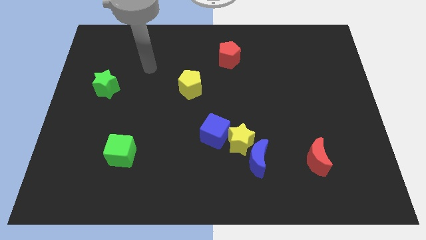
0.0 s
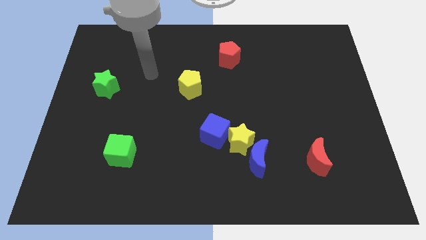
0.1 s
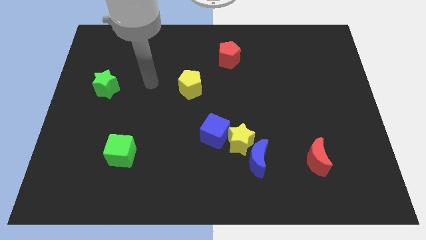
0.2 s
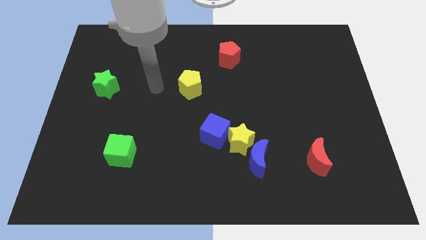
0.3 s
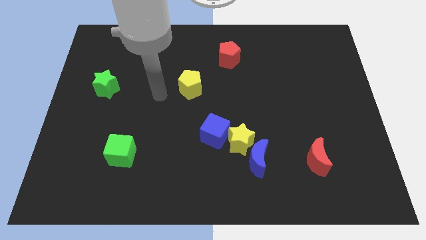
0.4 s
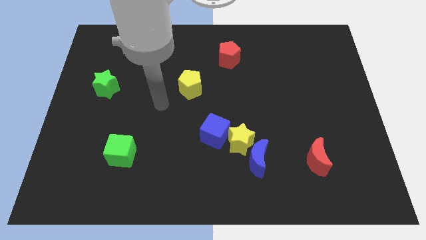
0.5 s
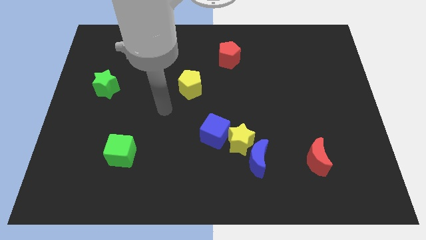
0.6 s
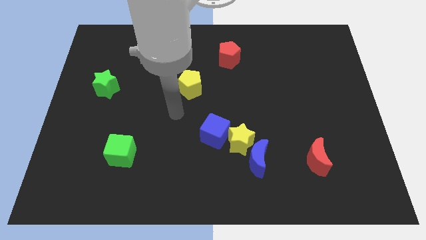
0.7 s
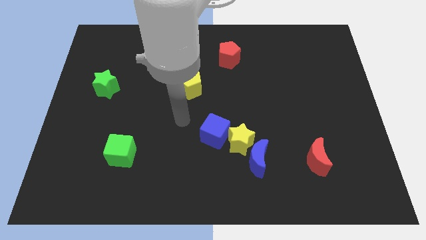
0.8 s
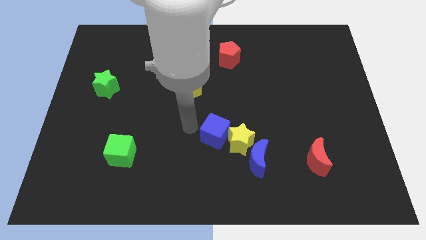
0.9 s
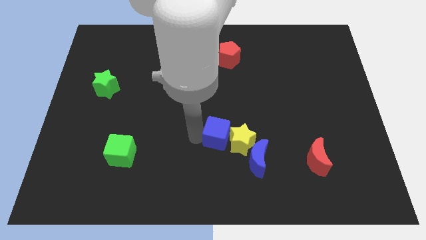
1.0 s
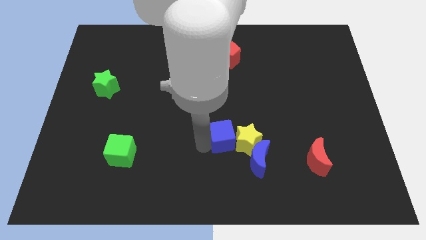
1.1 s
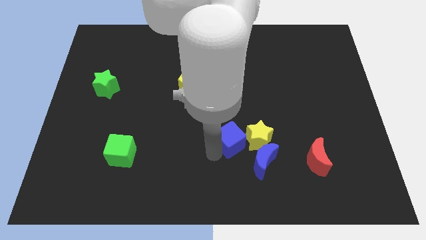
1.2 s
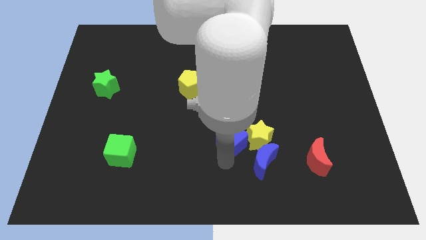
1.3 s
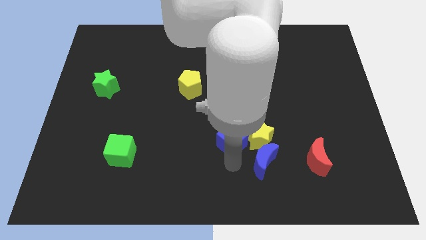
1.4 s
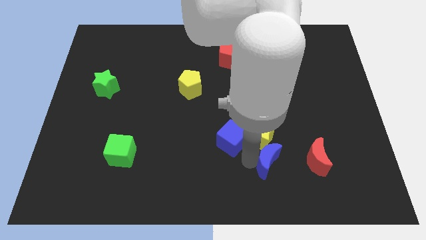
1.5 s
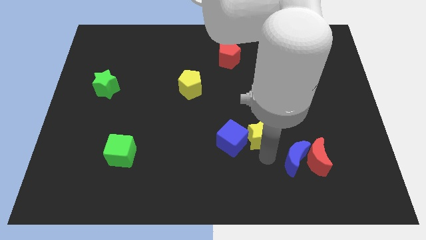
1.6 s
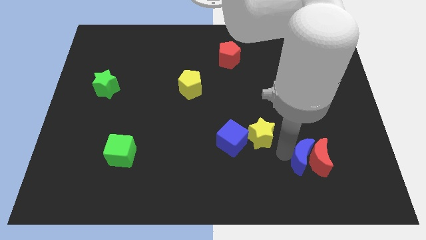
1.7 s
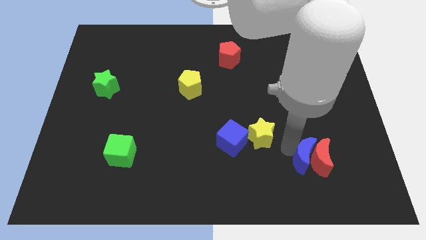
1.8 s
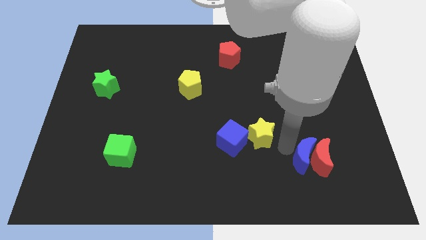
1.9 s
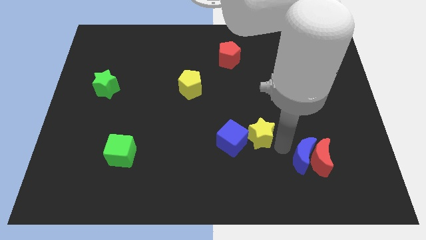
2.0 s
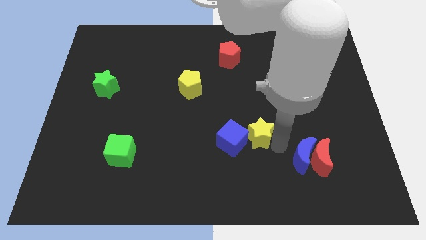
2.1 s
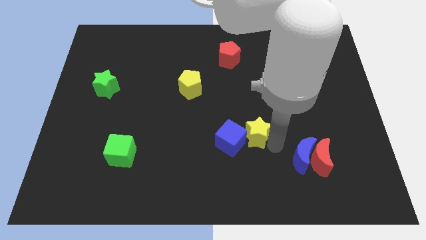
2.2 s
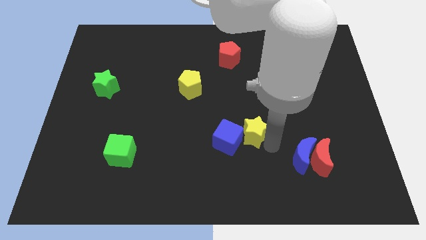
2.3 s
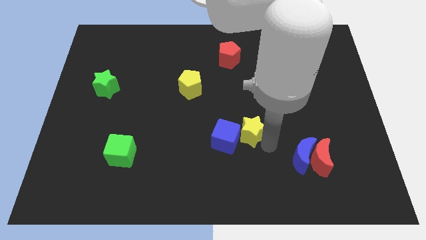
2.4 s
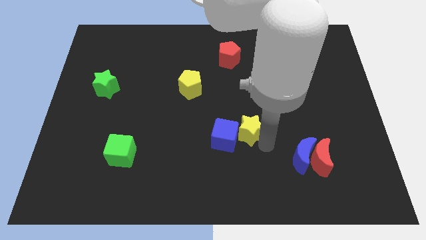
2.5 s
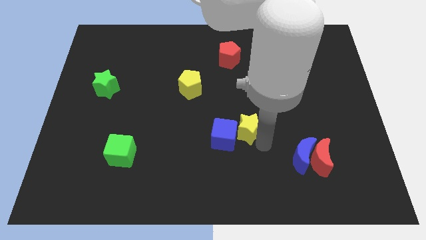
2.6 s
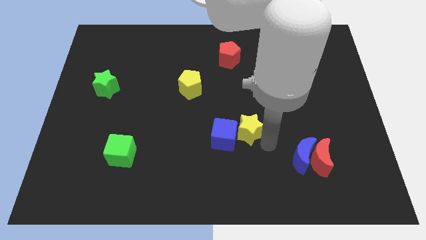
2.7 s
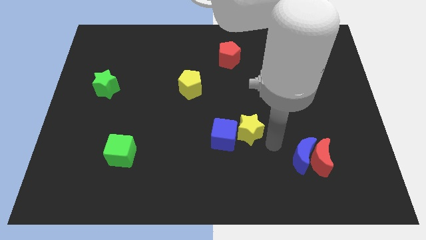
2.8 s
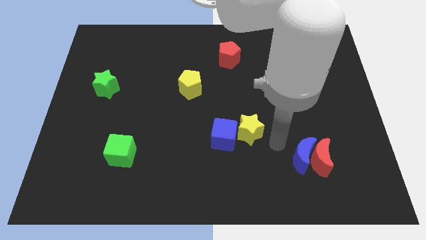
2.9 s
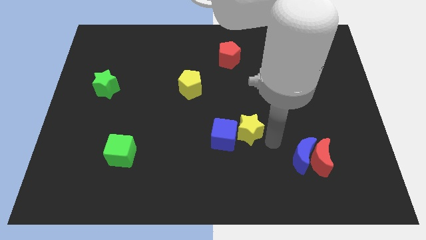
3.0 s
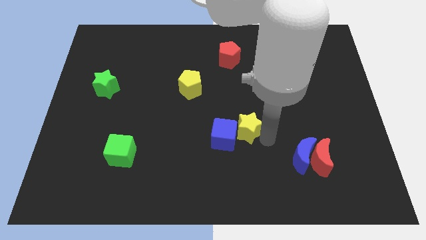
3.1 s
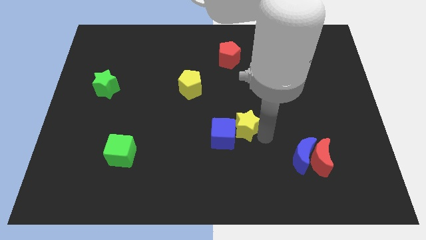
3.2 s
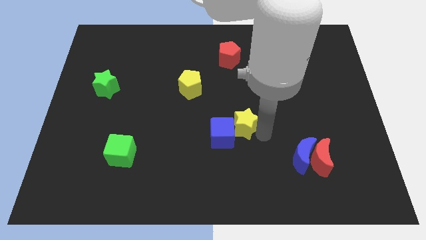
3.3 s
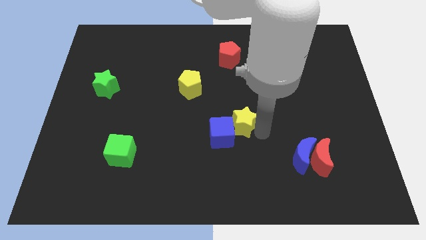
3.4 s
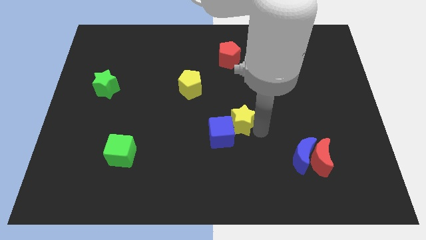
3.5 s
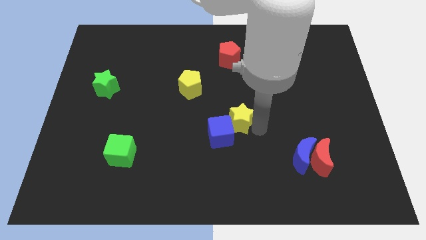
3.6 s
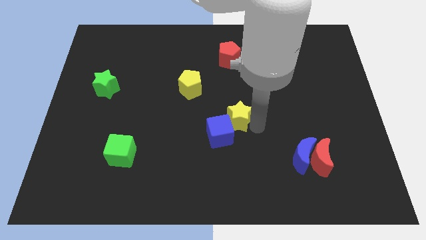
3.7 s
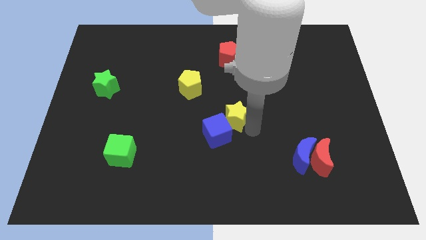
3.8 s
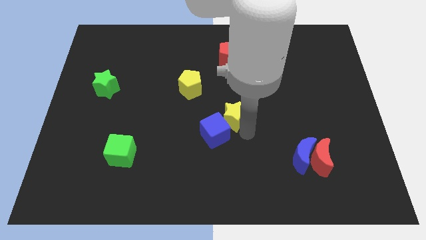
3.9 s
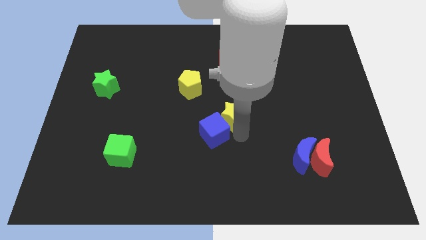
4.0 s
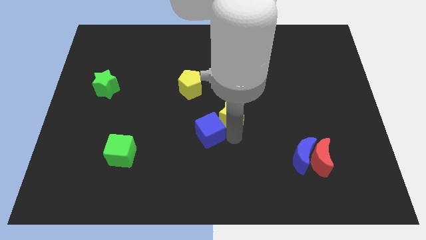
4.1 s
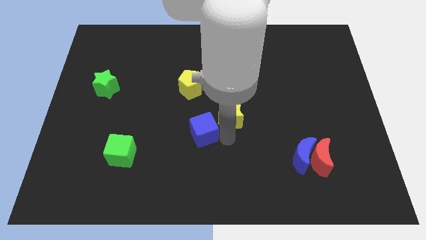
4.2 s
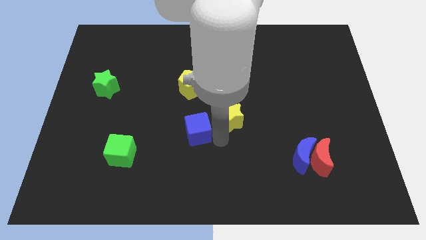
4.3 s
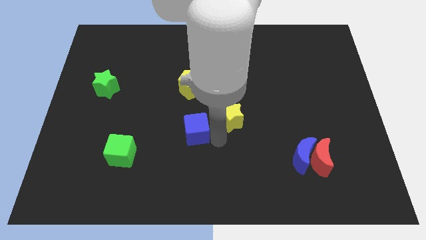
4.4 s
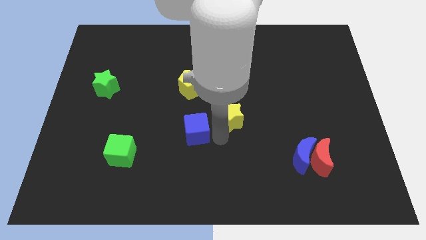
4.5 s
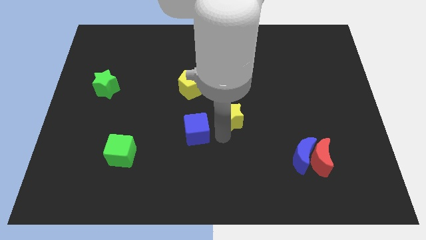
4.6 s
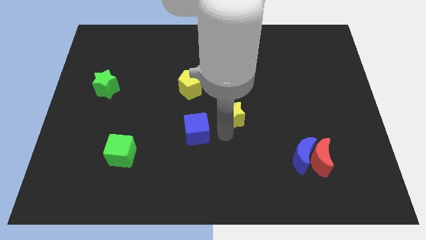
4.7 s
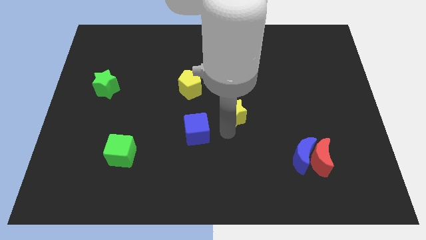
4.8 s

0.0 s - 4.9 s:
move the yellow star slightly up

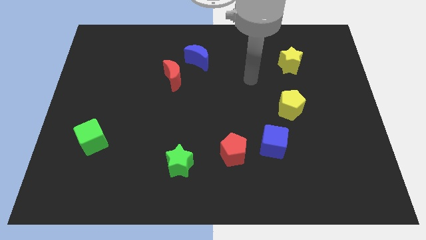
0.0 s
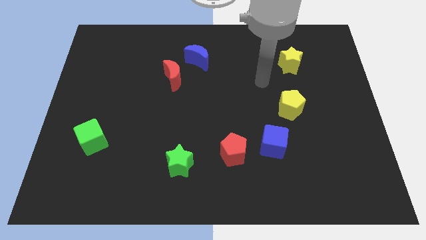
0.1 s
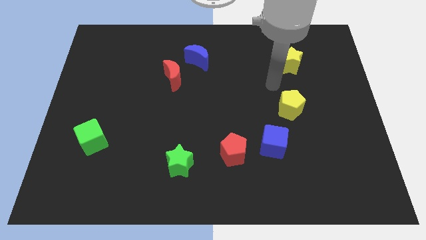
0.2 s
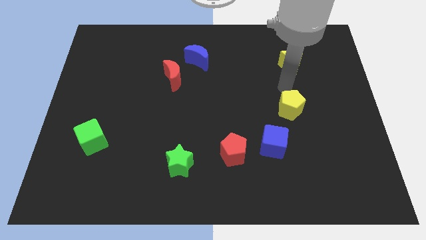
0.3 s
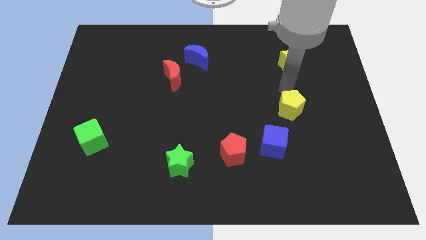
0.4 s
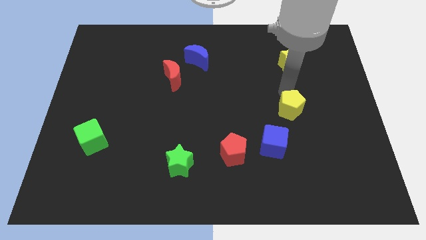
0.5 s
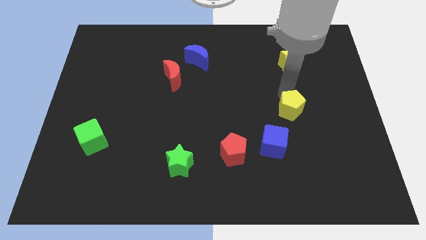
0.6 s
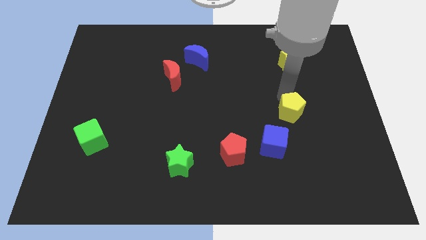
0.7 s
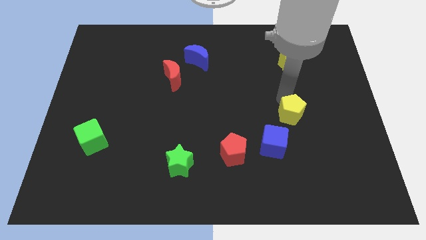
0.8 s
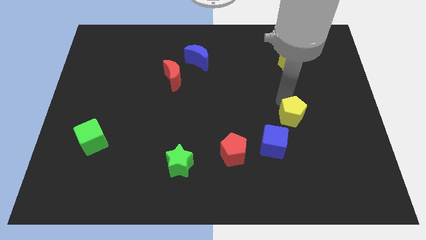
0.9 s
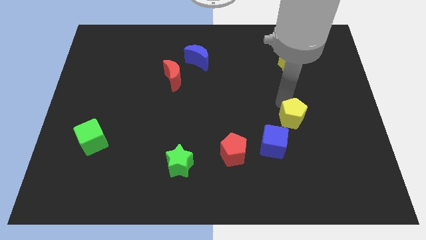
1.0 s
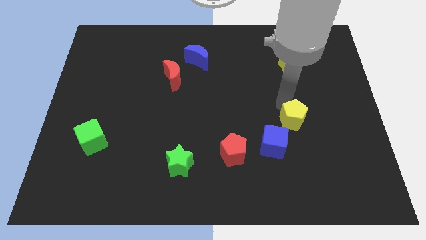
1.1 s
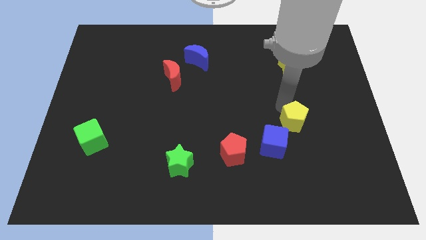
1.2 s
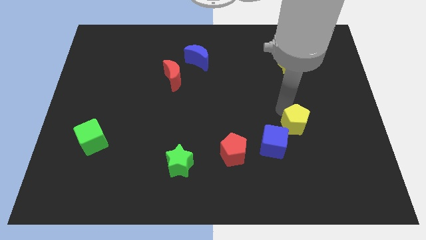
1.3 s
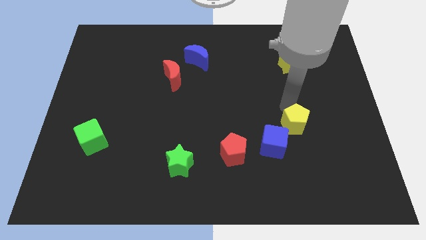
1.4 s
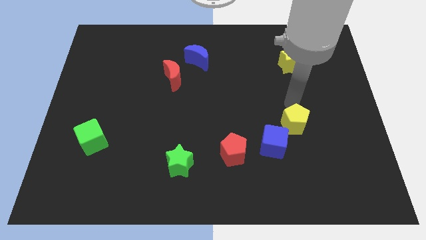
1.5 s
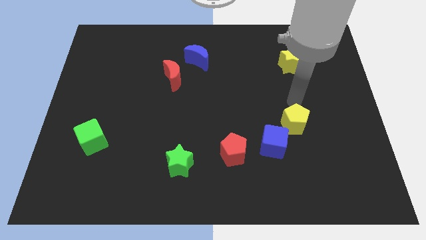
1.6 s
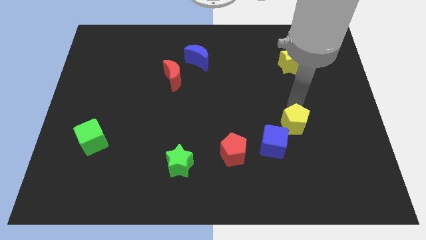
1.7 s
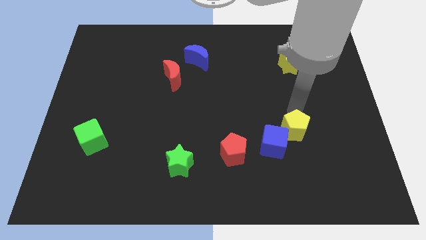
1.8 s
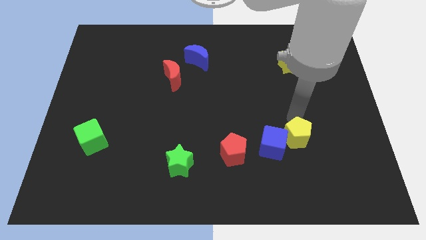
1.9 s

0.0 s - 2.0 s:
push the yellow pentagon a bit downwards

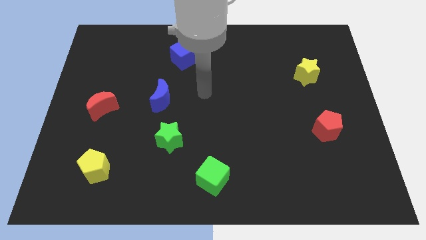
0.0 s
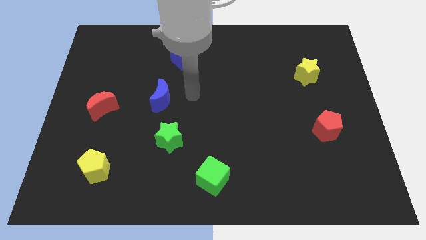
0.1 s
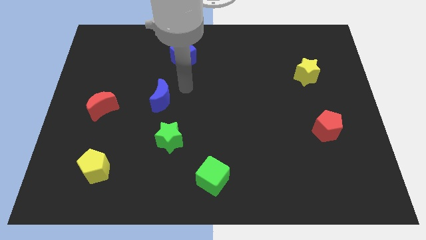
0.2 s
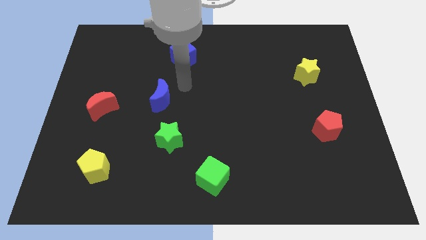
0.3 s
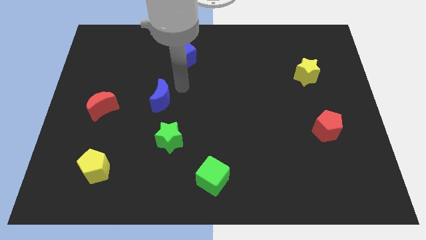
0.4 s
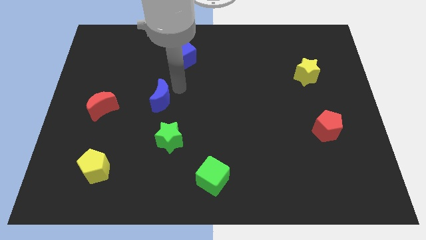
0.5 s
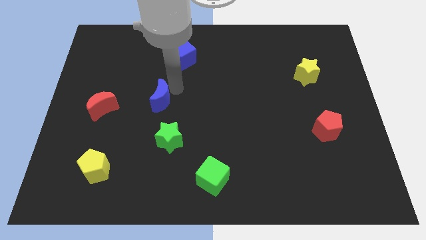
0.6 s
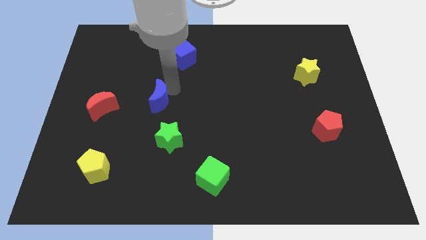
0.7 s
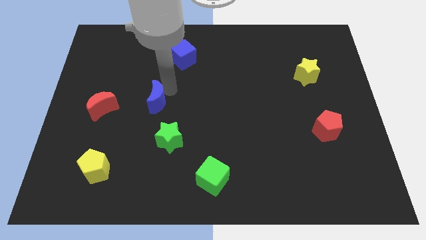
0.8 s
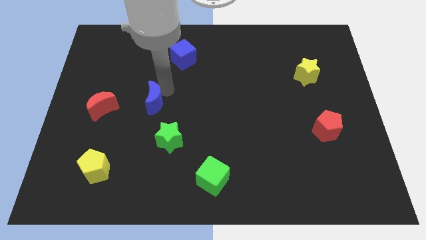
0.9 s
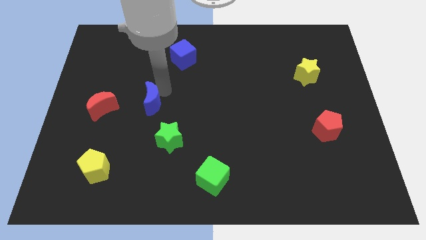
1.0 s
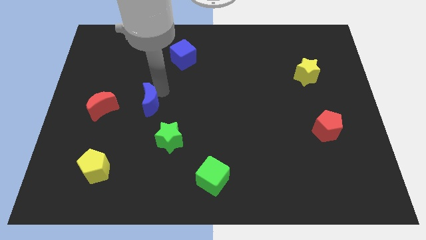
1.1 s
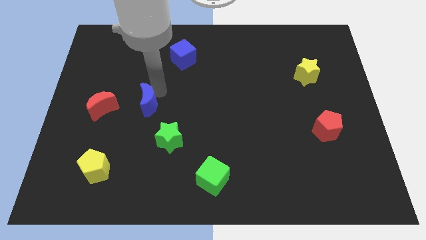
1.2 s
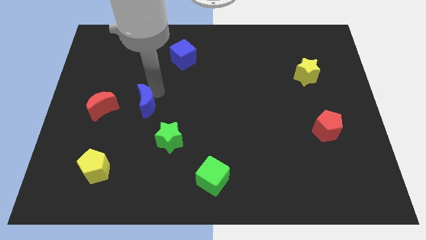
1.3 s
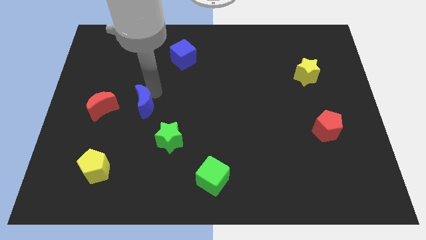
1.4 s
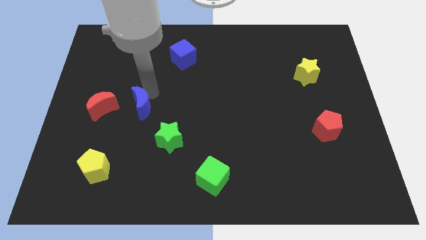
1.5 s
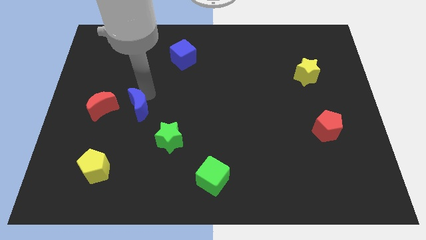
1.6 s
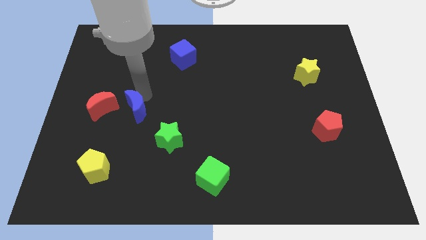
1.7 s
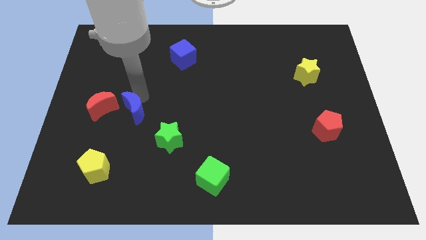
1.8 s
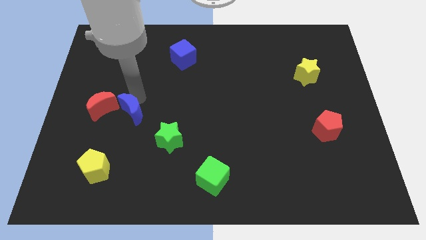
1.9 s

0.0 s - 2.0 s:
slightly push the blue moon down and then left
